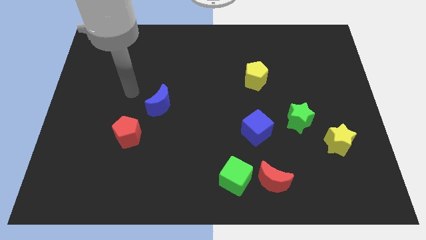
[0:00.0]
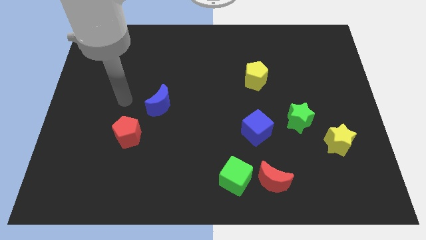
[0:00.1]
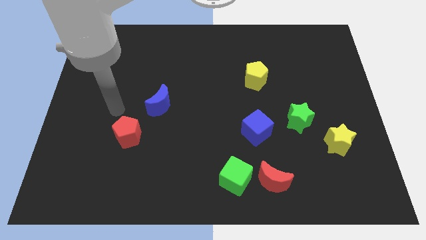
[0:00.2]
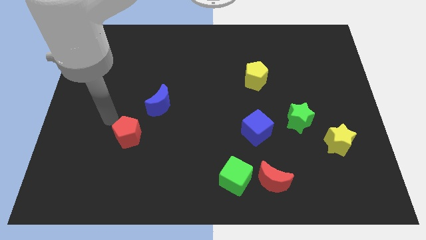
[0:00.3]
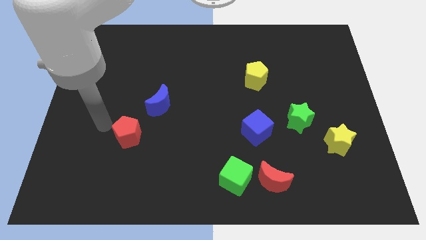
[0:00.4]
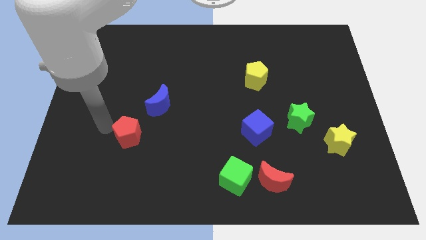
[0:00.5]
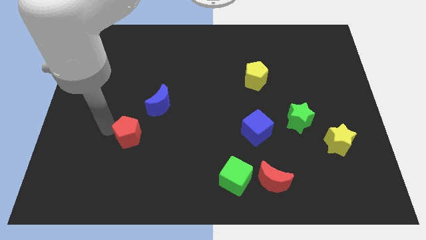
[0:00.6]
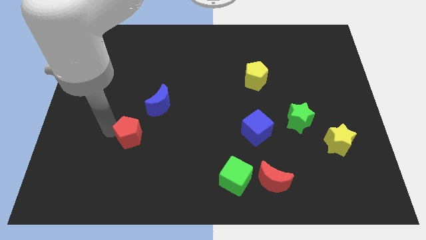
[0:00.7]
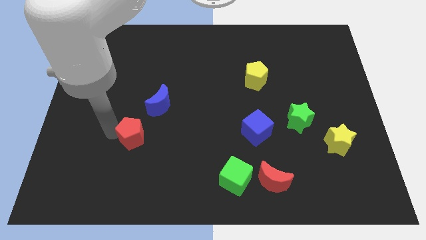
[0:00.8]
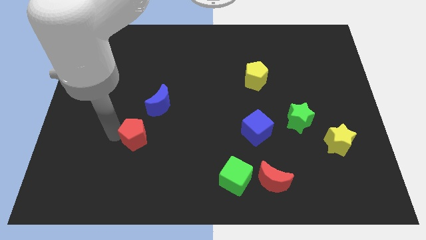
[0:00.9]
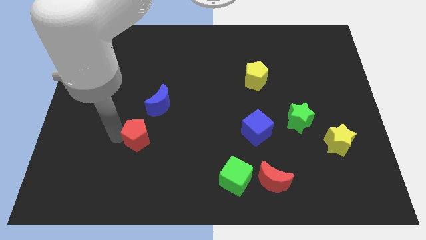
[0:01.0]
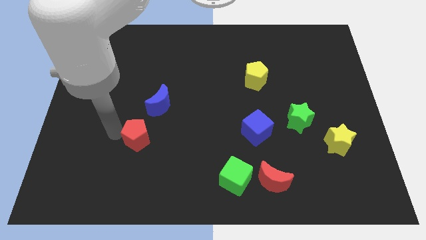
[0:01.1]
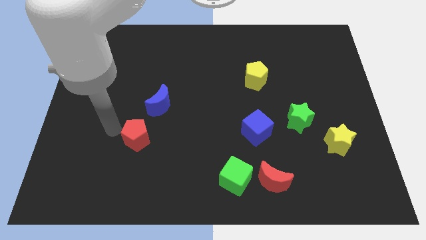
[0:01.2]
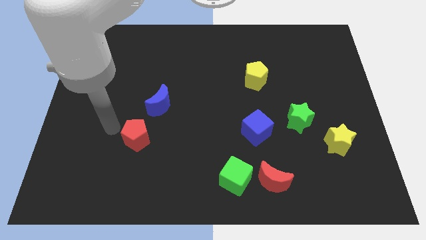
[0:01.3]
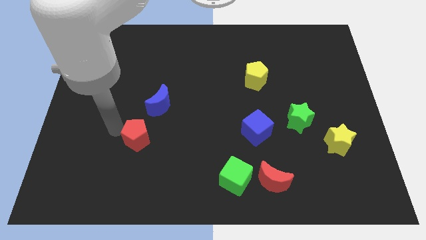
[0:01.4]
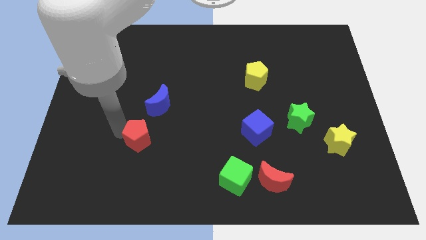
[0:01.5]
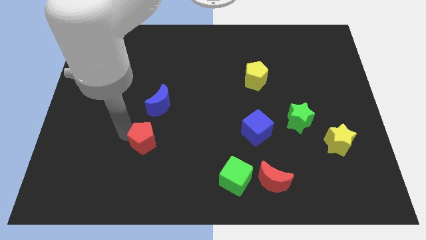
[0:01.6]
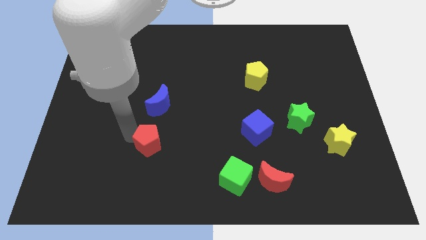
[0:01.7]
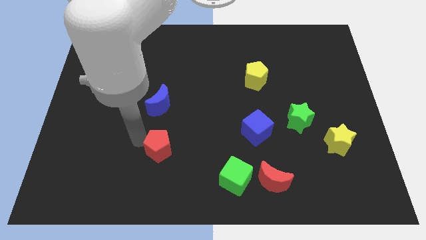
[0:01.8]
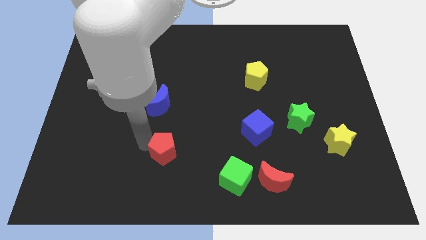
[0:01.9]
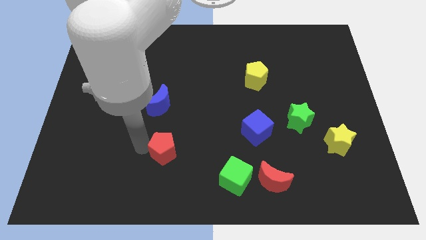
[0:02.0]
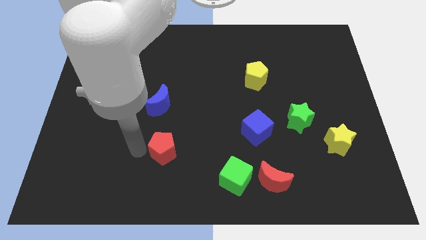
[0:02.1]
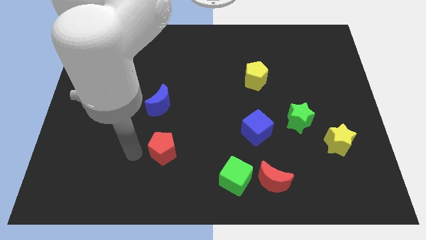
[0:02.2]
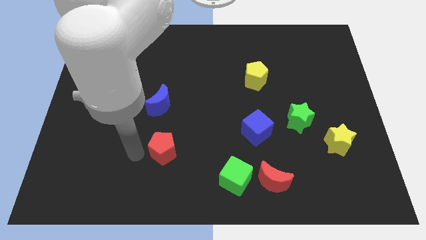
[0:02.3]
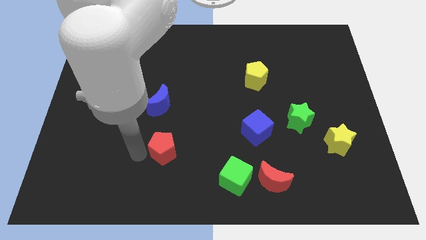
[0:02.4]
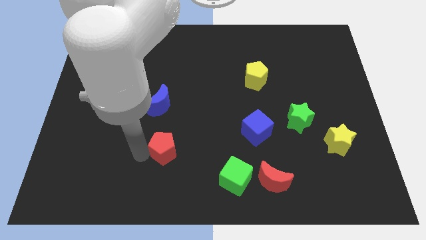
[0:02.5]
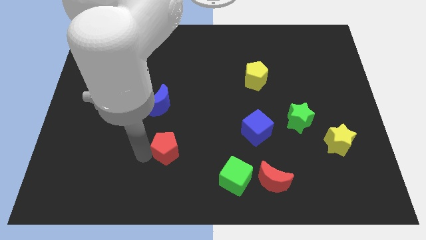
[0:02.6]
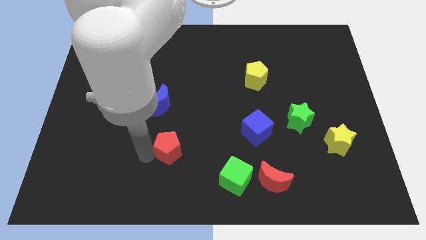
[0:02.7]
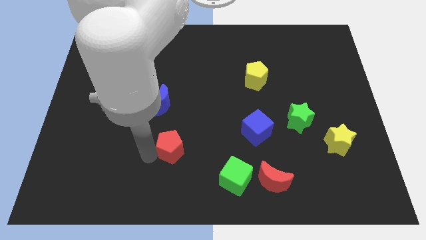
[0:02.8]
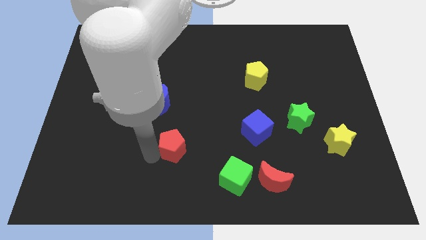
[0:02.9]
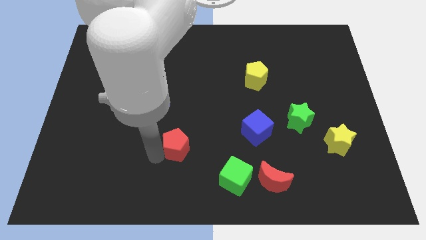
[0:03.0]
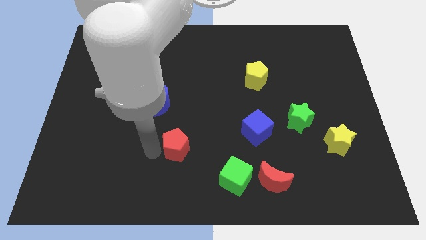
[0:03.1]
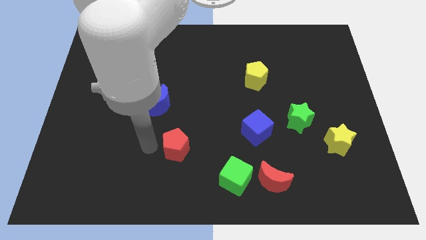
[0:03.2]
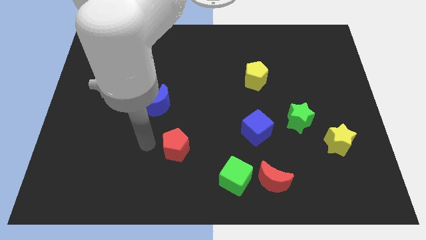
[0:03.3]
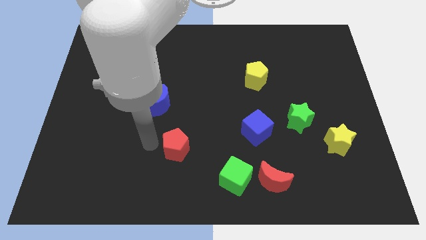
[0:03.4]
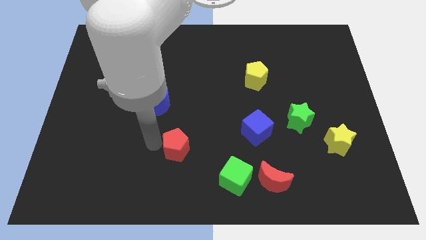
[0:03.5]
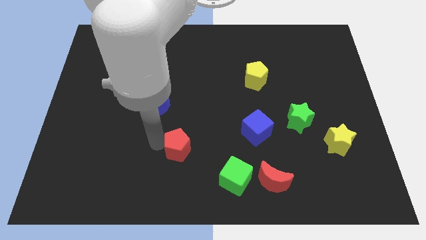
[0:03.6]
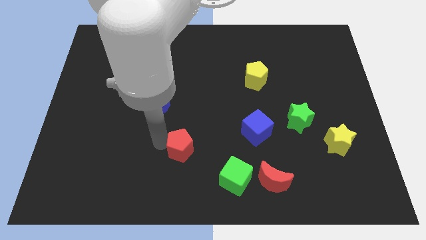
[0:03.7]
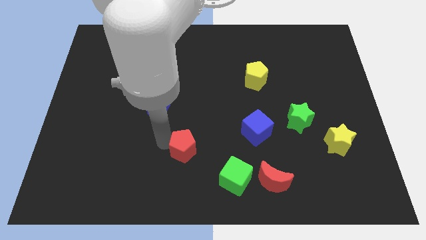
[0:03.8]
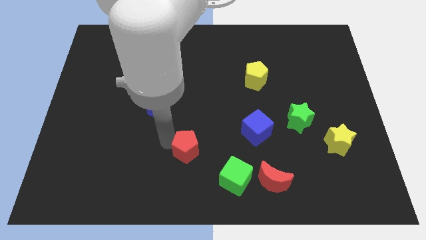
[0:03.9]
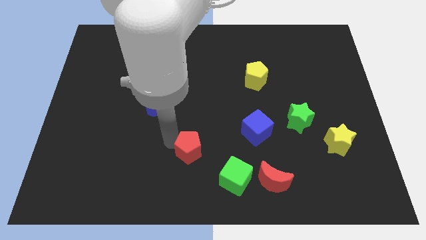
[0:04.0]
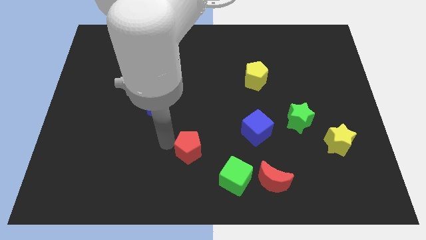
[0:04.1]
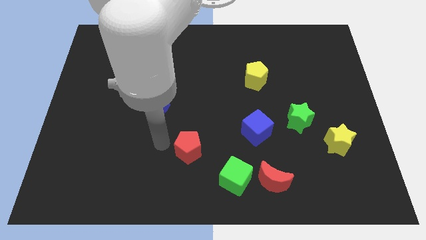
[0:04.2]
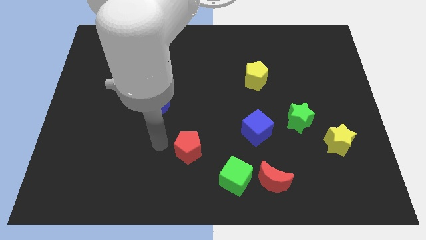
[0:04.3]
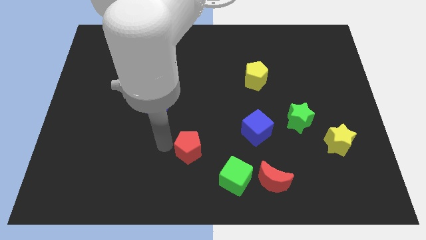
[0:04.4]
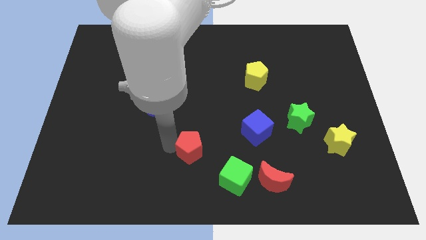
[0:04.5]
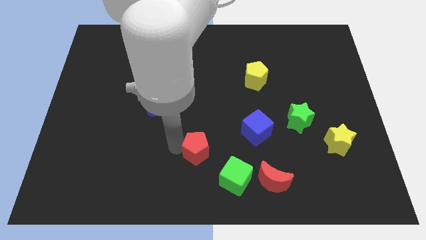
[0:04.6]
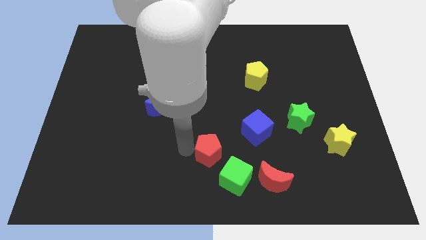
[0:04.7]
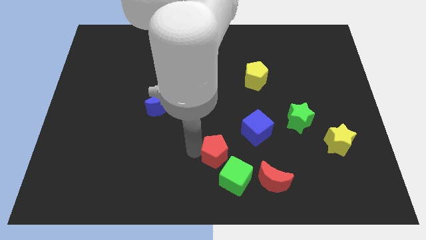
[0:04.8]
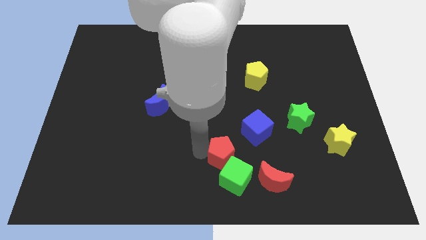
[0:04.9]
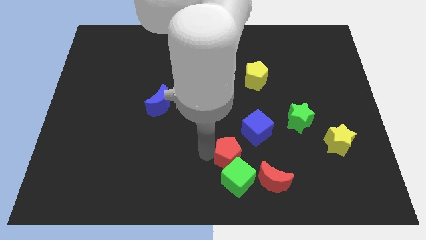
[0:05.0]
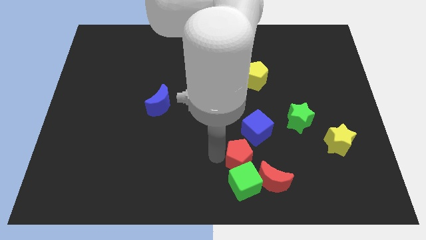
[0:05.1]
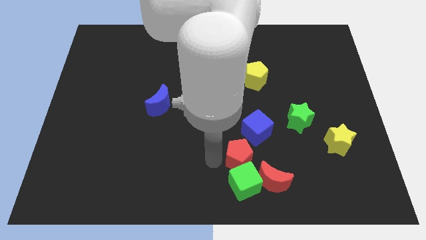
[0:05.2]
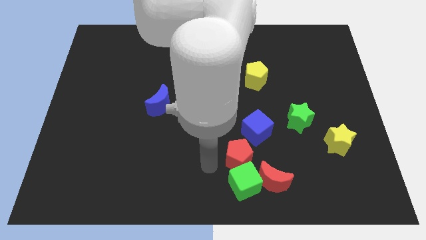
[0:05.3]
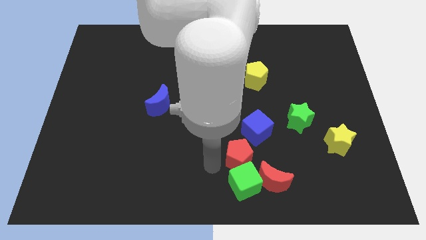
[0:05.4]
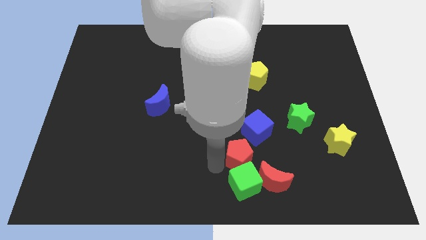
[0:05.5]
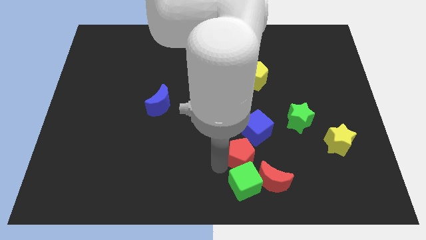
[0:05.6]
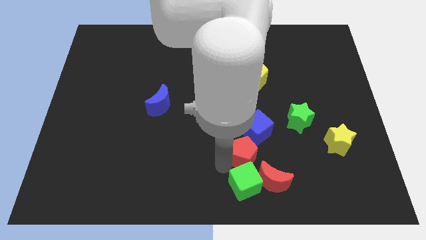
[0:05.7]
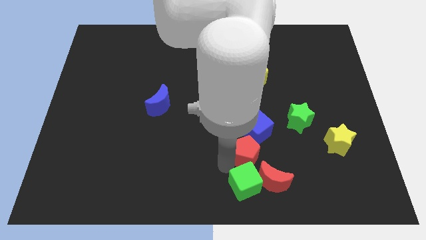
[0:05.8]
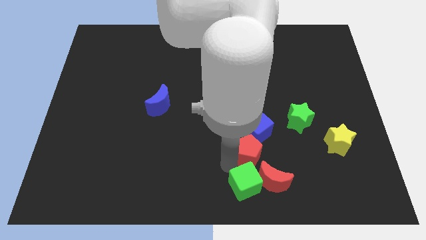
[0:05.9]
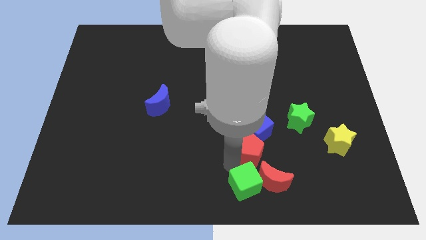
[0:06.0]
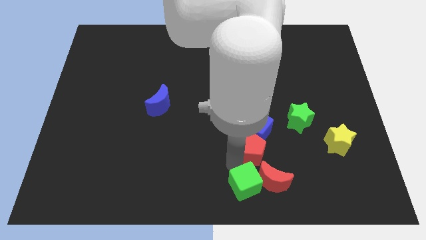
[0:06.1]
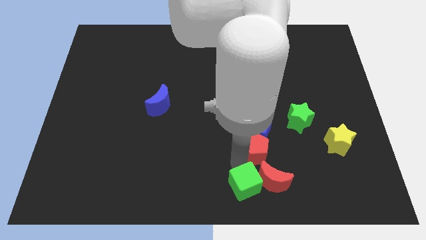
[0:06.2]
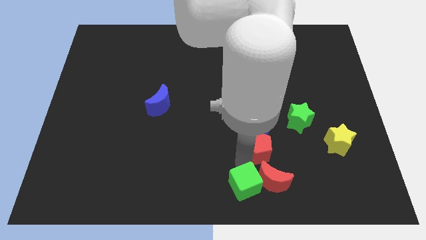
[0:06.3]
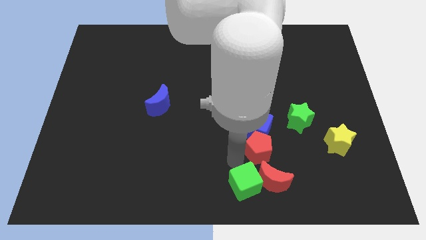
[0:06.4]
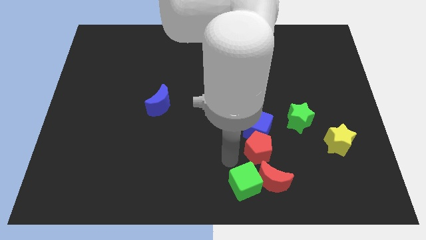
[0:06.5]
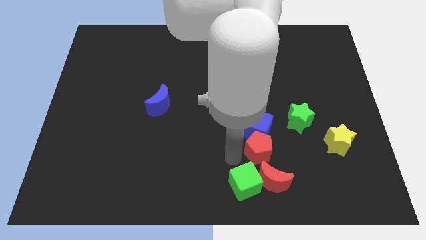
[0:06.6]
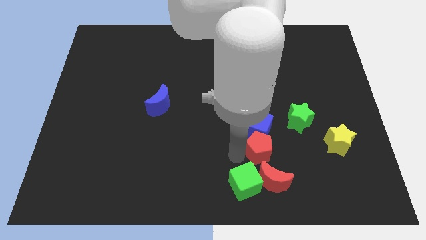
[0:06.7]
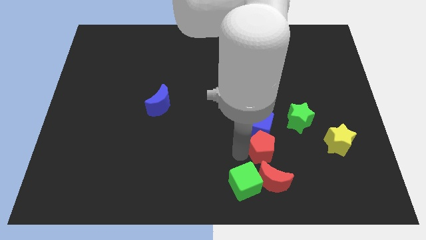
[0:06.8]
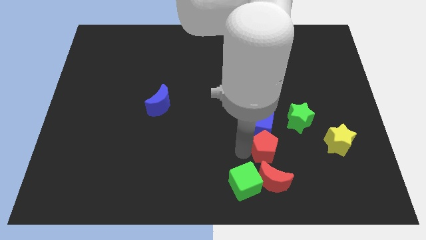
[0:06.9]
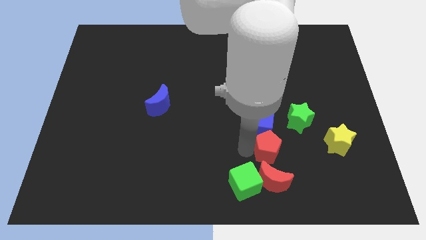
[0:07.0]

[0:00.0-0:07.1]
slide the red pentagon to the left of the yellow star
